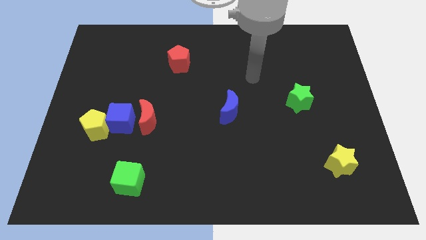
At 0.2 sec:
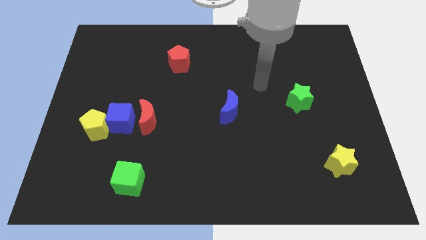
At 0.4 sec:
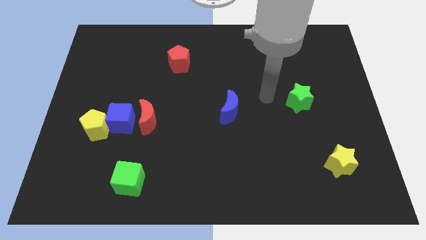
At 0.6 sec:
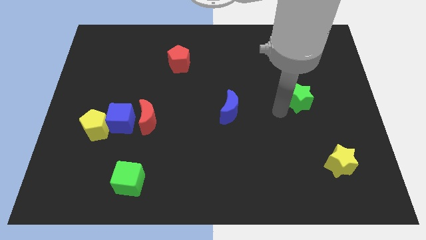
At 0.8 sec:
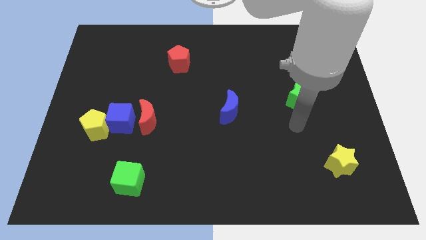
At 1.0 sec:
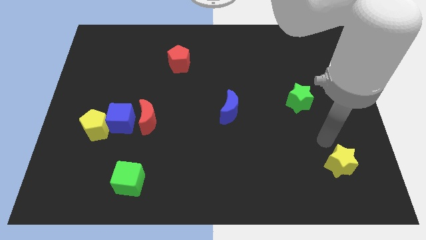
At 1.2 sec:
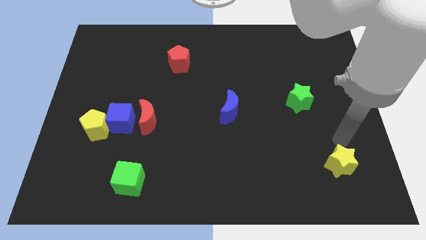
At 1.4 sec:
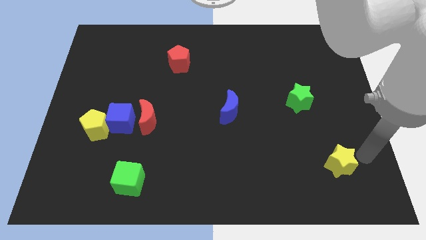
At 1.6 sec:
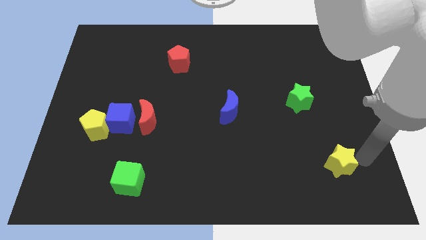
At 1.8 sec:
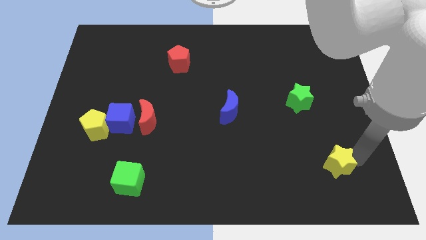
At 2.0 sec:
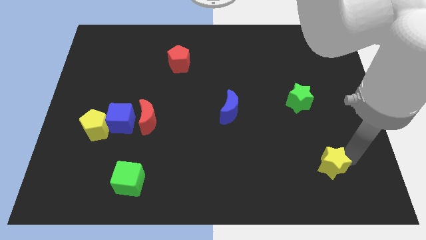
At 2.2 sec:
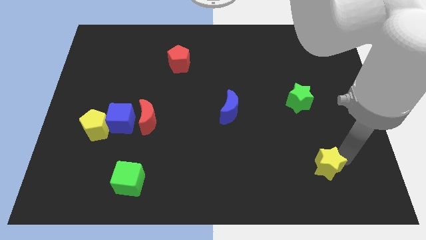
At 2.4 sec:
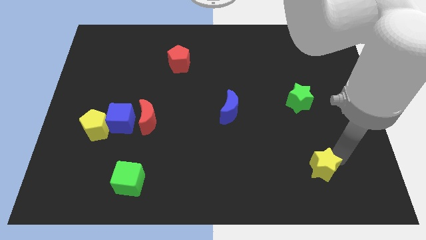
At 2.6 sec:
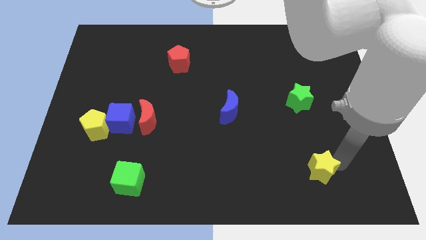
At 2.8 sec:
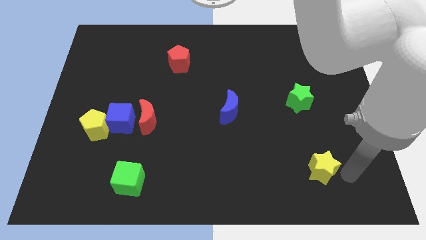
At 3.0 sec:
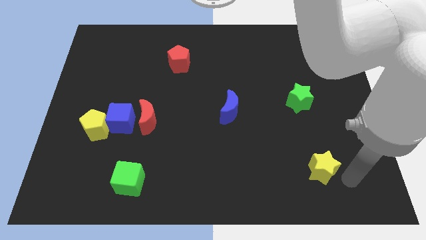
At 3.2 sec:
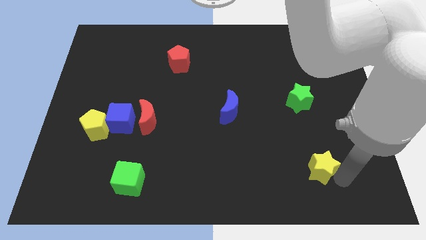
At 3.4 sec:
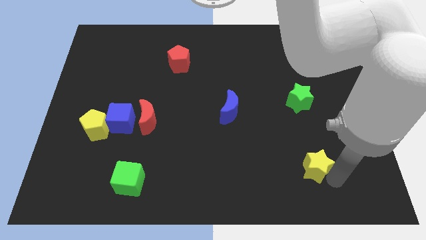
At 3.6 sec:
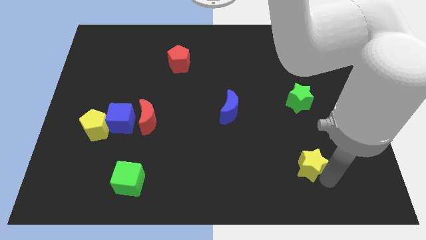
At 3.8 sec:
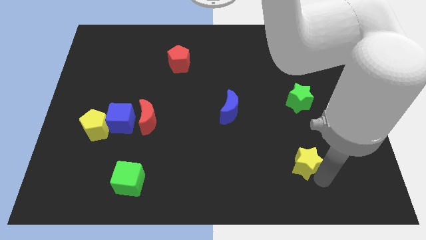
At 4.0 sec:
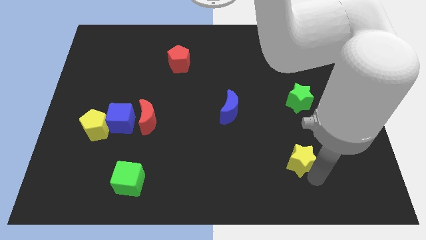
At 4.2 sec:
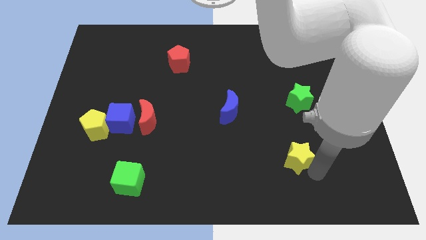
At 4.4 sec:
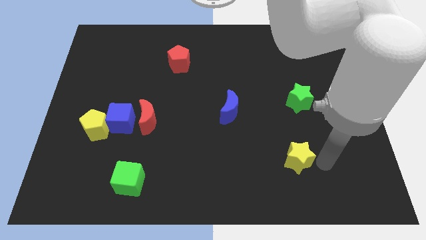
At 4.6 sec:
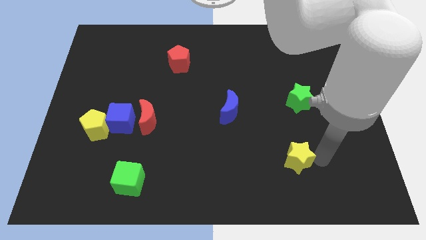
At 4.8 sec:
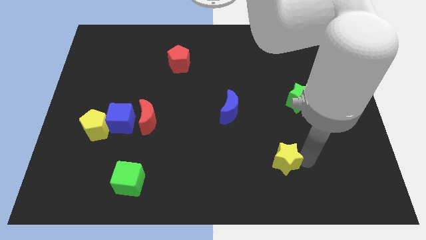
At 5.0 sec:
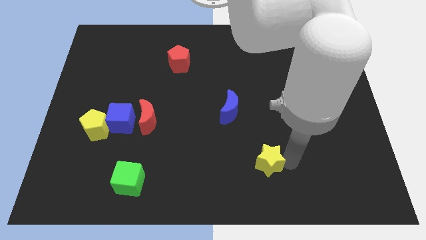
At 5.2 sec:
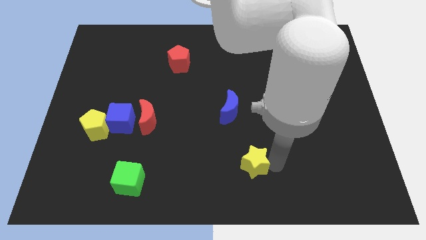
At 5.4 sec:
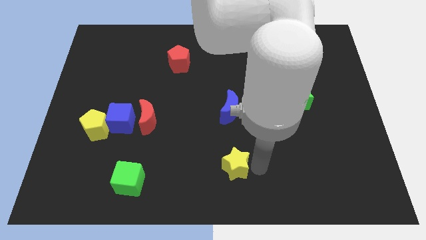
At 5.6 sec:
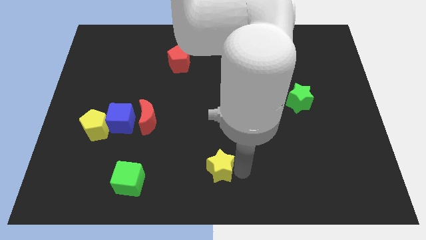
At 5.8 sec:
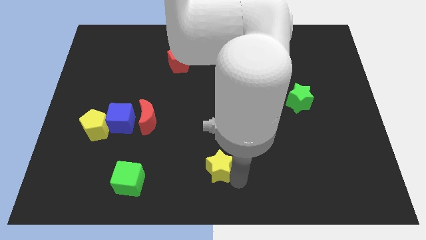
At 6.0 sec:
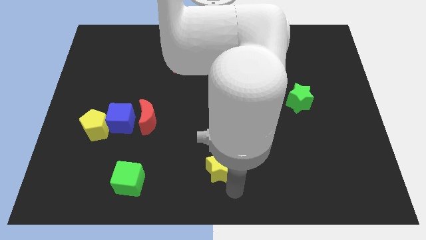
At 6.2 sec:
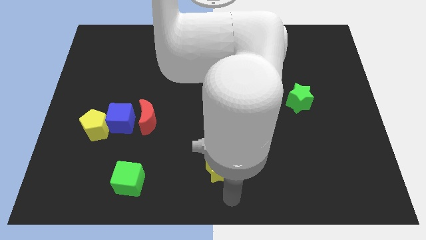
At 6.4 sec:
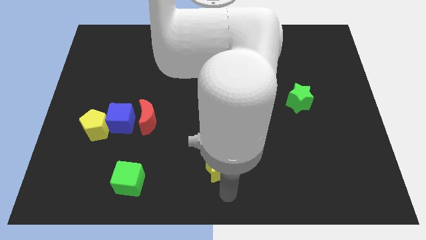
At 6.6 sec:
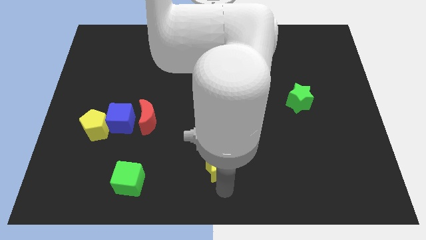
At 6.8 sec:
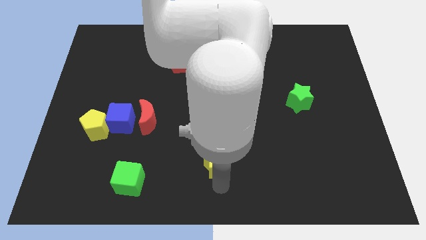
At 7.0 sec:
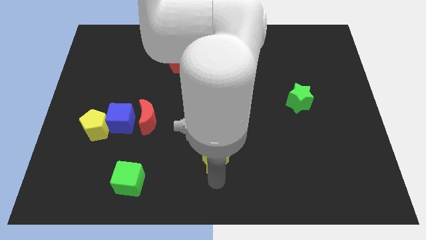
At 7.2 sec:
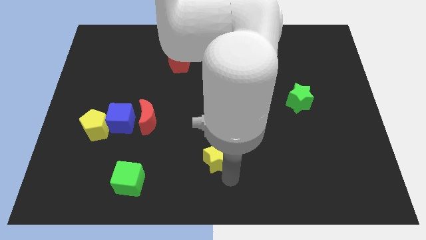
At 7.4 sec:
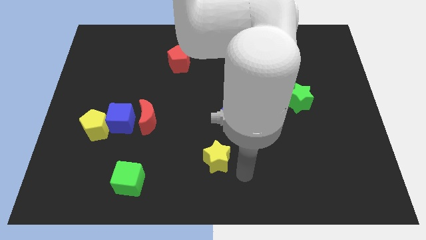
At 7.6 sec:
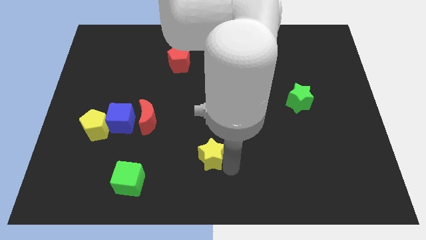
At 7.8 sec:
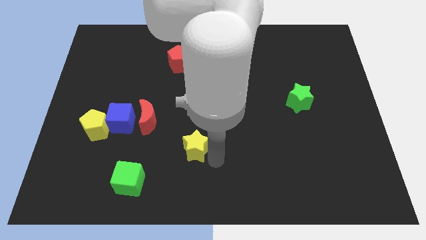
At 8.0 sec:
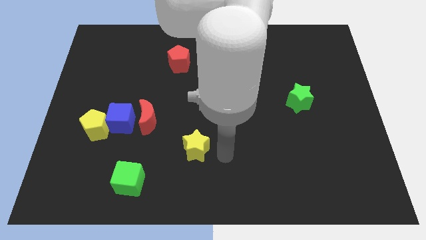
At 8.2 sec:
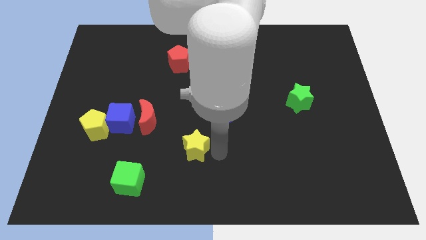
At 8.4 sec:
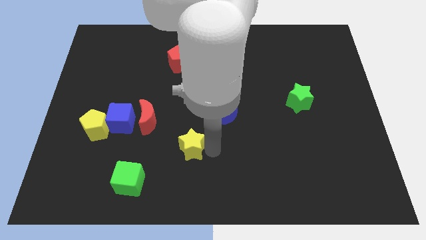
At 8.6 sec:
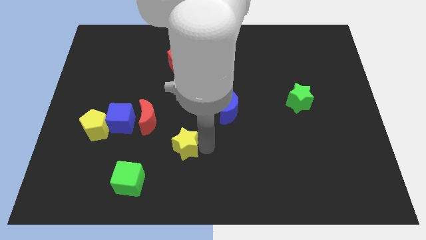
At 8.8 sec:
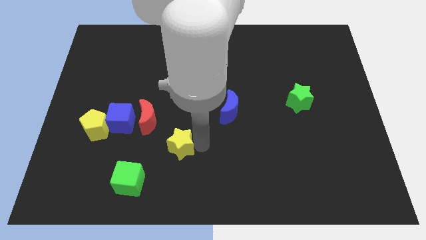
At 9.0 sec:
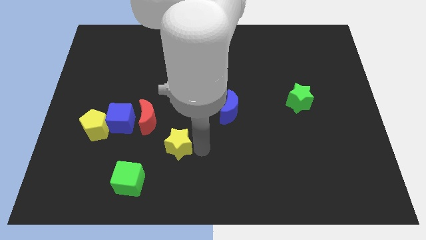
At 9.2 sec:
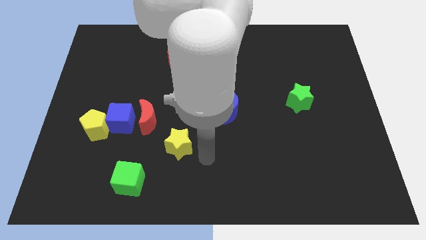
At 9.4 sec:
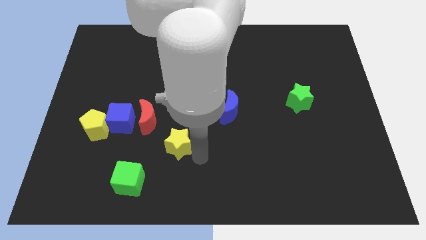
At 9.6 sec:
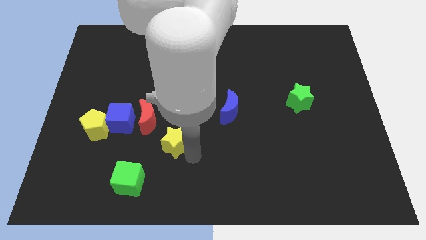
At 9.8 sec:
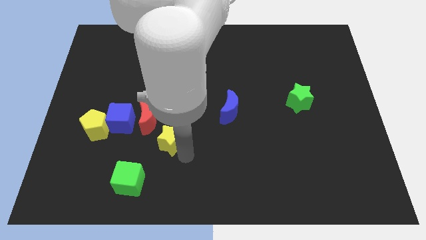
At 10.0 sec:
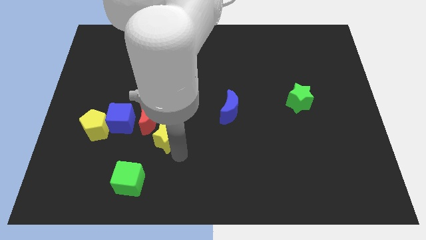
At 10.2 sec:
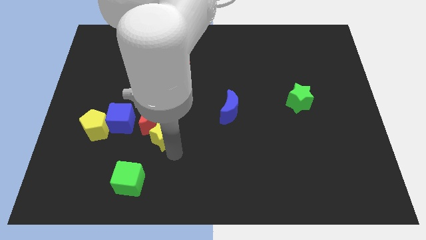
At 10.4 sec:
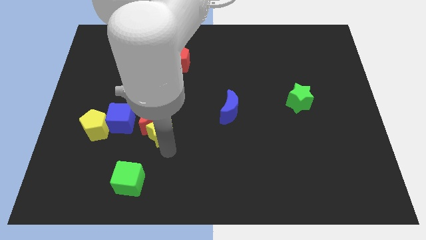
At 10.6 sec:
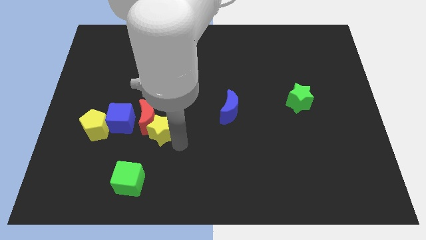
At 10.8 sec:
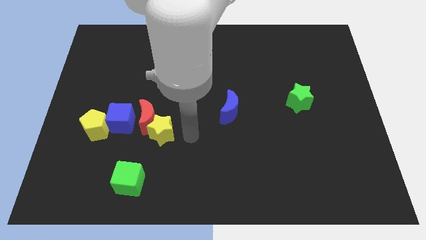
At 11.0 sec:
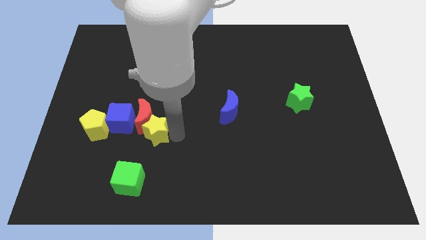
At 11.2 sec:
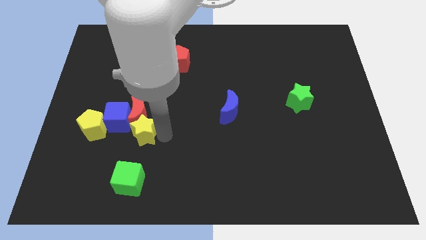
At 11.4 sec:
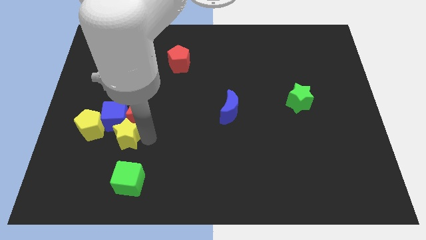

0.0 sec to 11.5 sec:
slide the yellow star next to the blue cube

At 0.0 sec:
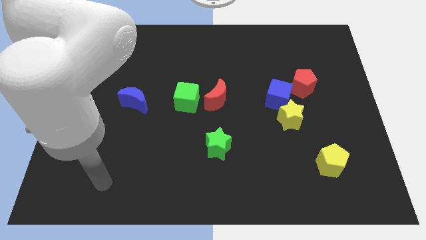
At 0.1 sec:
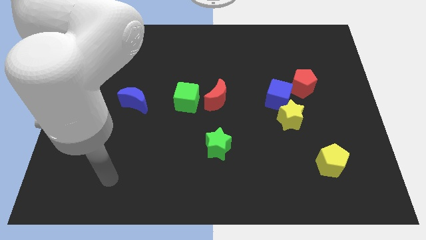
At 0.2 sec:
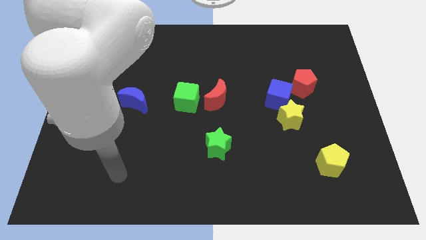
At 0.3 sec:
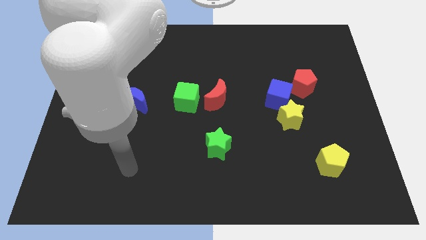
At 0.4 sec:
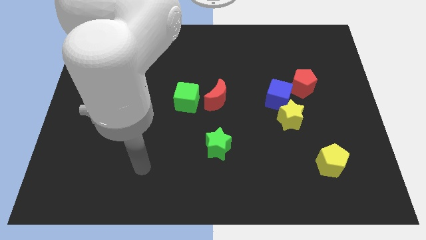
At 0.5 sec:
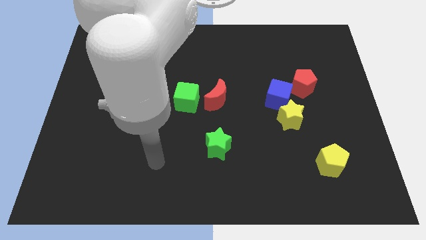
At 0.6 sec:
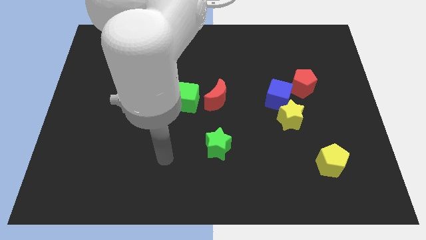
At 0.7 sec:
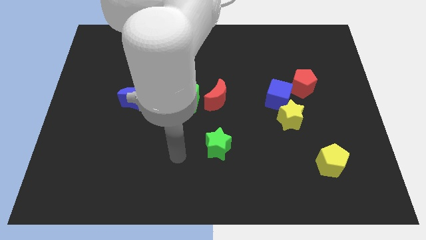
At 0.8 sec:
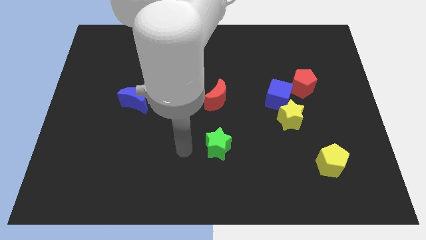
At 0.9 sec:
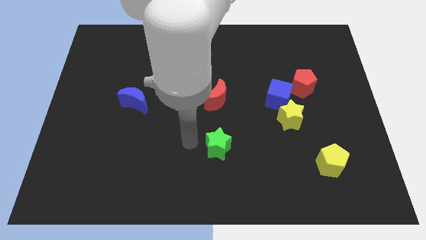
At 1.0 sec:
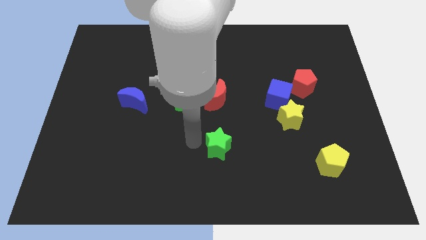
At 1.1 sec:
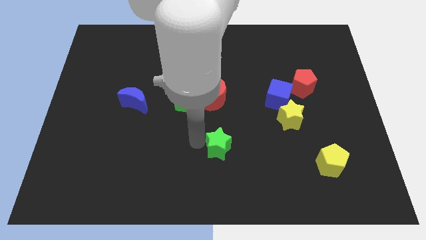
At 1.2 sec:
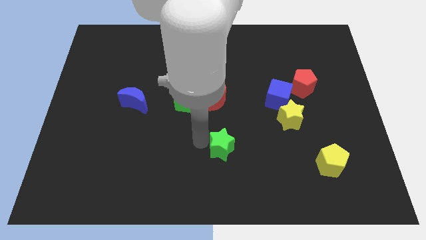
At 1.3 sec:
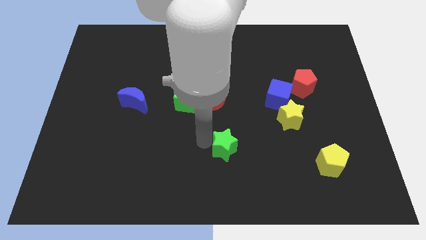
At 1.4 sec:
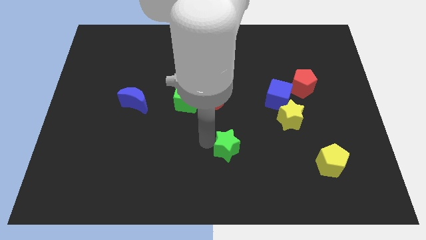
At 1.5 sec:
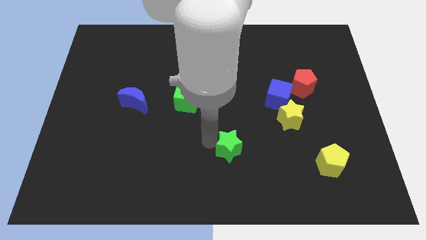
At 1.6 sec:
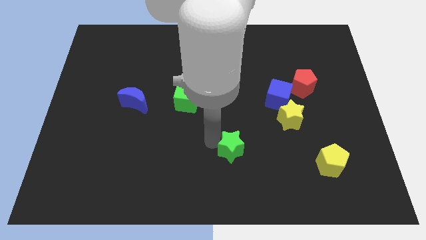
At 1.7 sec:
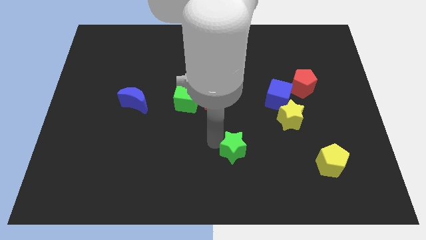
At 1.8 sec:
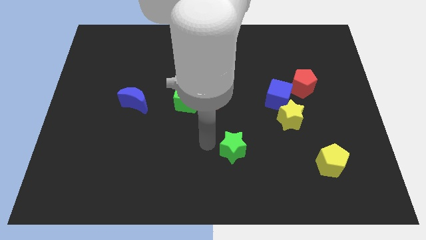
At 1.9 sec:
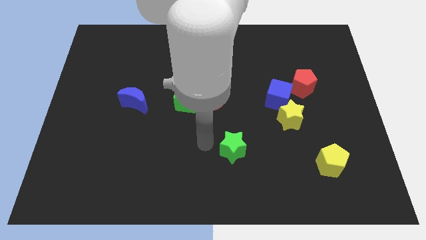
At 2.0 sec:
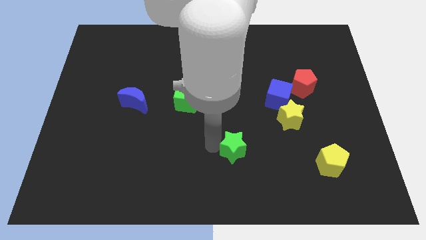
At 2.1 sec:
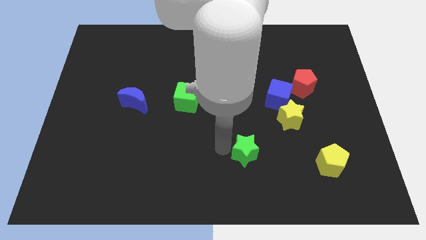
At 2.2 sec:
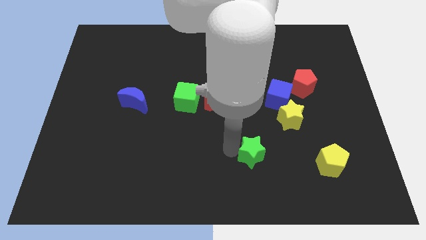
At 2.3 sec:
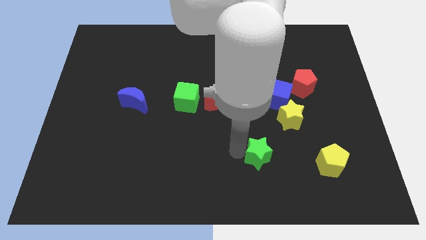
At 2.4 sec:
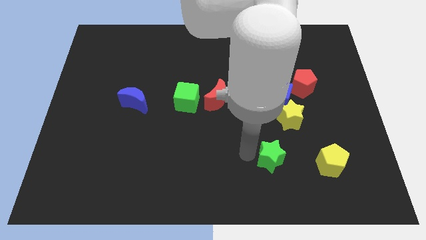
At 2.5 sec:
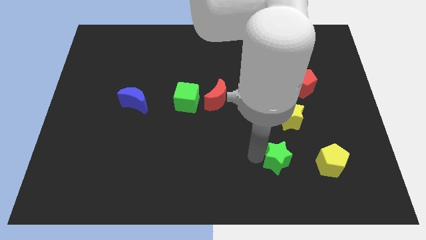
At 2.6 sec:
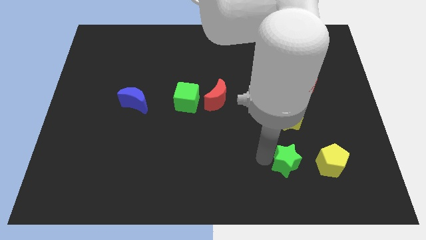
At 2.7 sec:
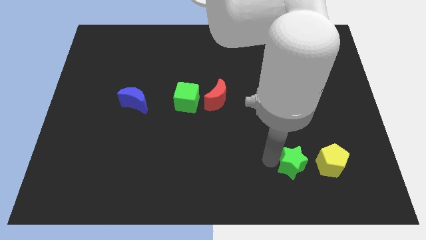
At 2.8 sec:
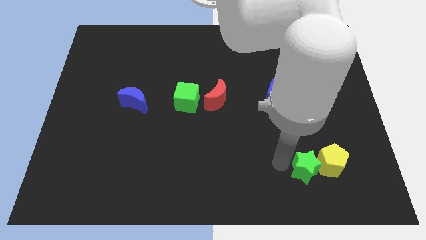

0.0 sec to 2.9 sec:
put the green star close to the yellow pentagon
